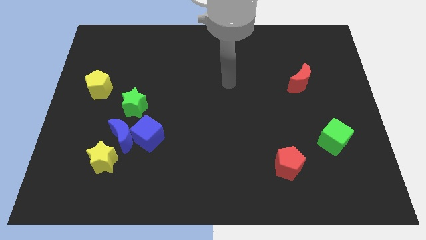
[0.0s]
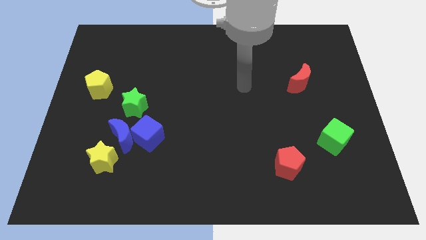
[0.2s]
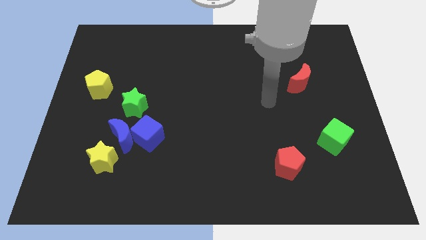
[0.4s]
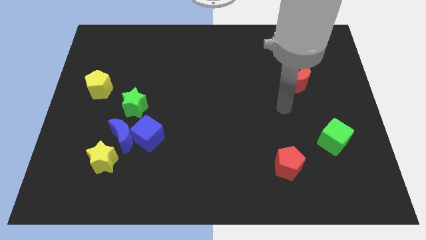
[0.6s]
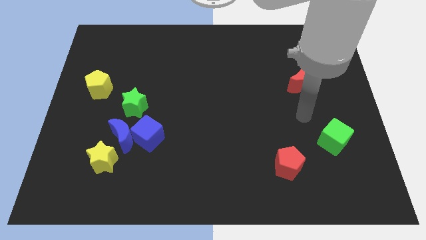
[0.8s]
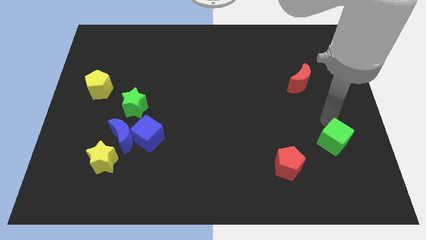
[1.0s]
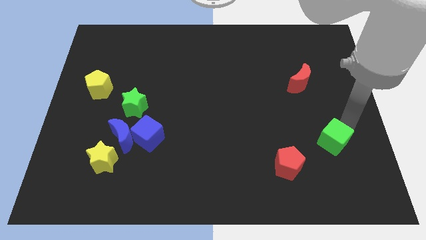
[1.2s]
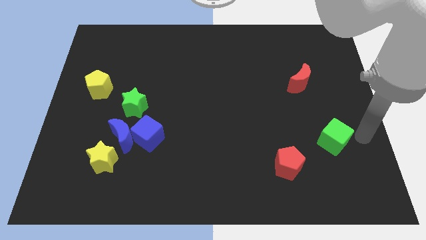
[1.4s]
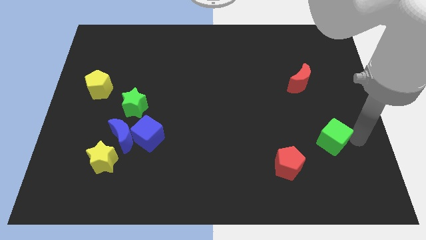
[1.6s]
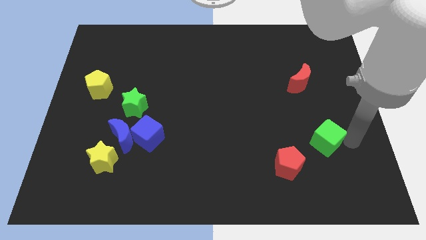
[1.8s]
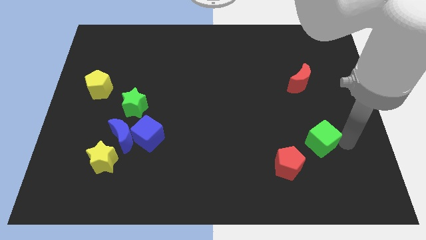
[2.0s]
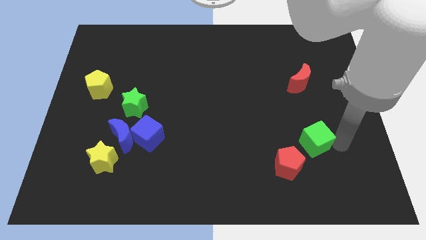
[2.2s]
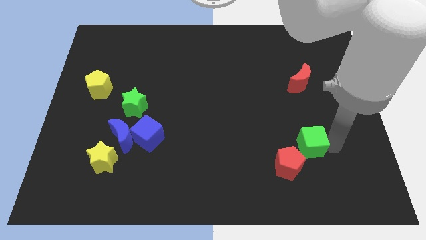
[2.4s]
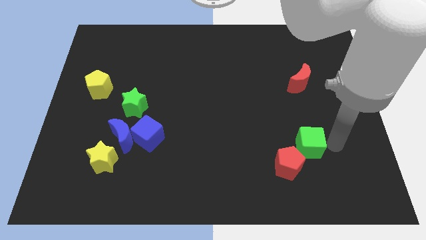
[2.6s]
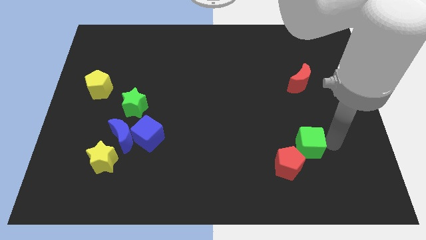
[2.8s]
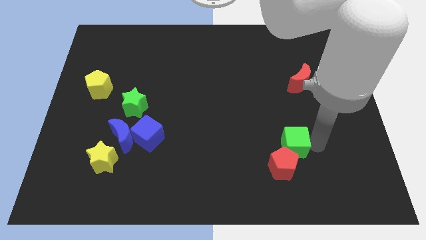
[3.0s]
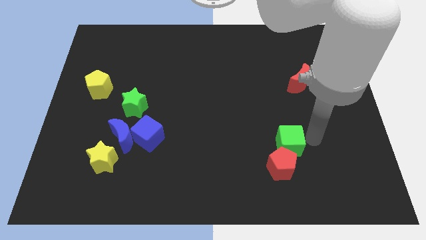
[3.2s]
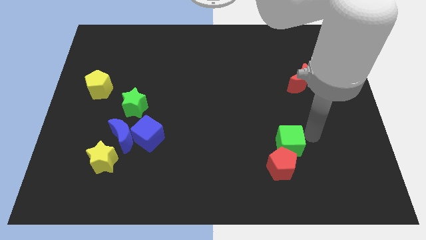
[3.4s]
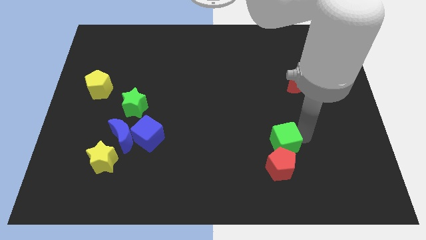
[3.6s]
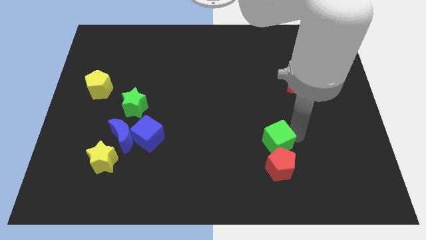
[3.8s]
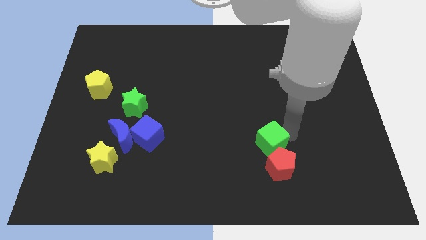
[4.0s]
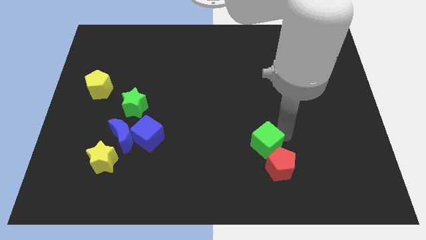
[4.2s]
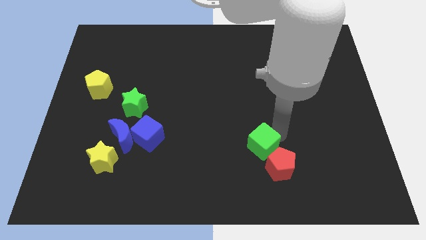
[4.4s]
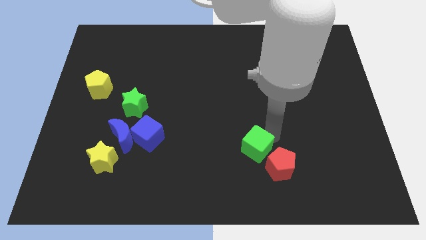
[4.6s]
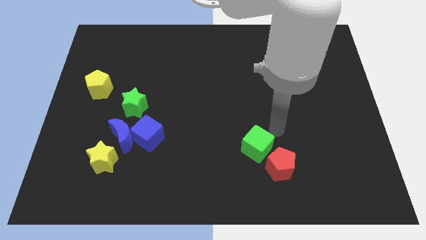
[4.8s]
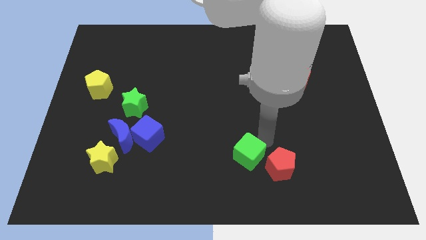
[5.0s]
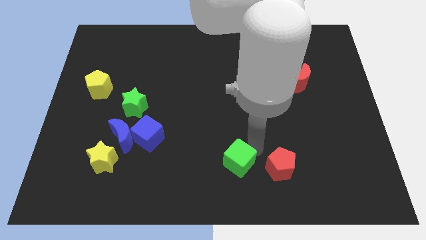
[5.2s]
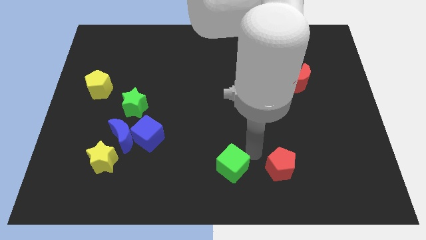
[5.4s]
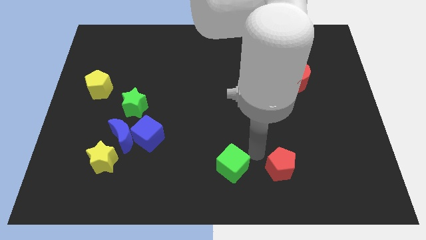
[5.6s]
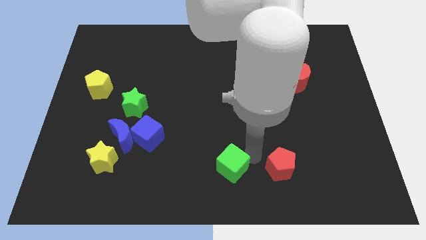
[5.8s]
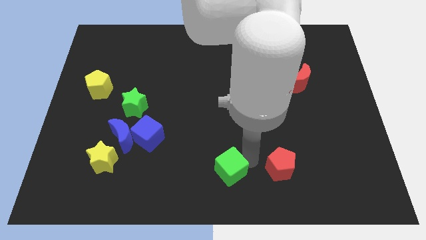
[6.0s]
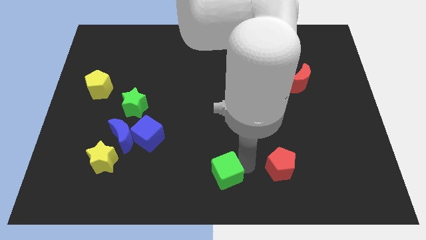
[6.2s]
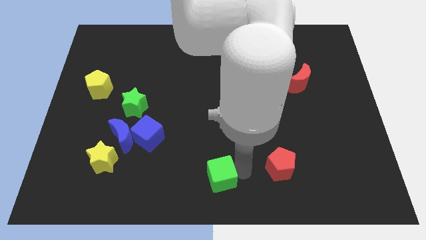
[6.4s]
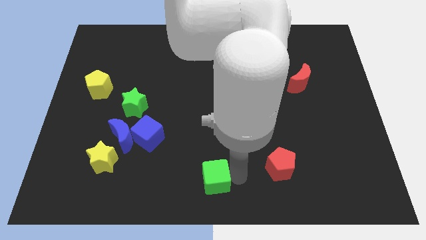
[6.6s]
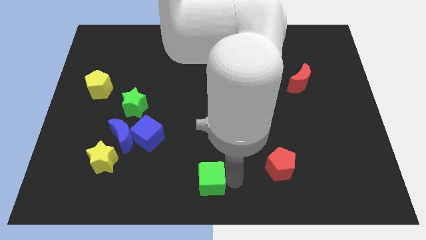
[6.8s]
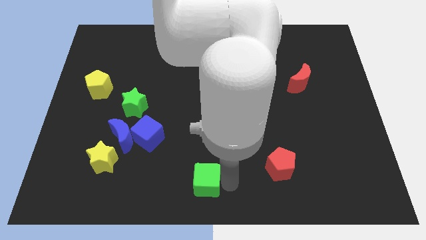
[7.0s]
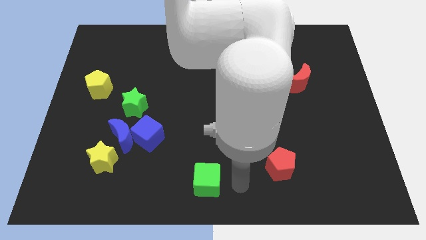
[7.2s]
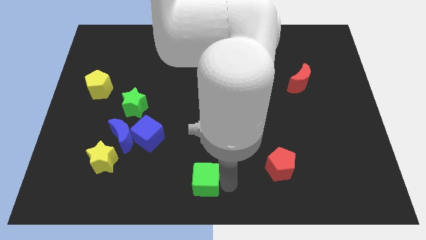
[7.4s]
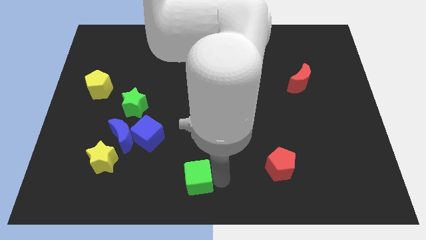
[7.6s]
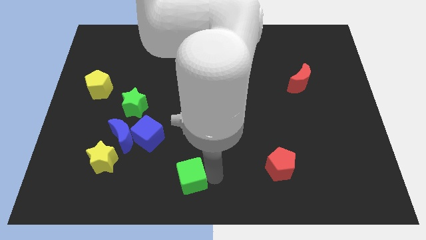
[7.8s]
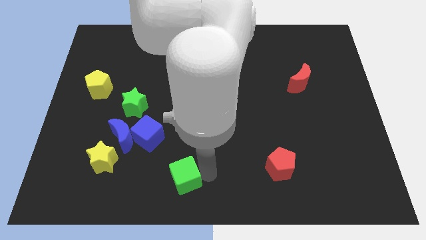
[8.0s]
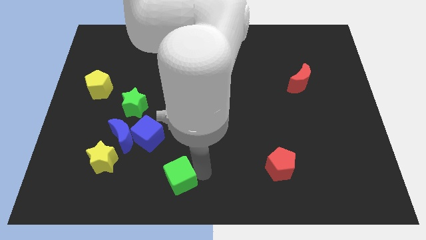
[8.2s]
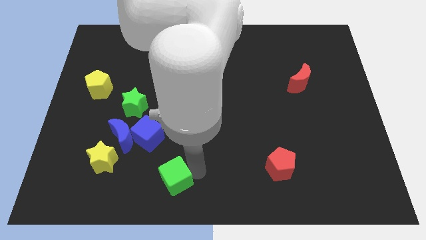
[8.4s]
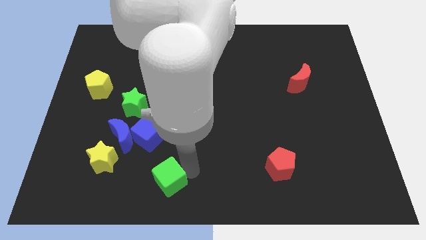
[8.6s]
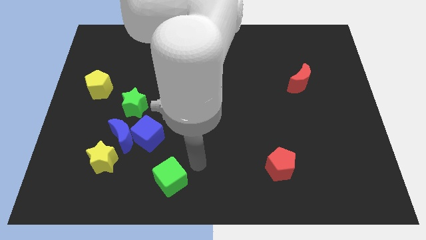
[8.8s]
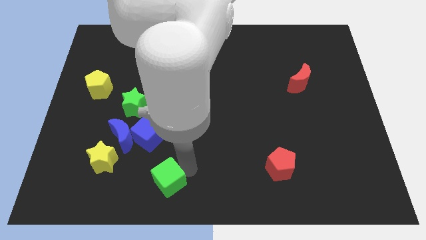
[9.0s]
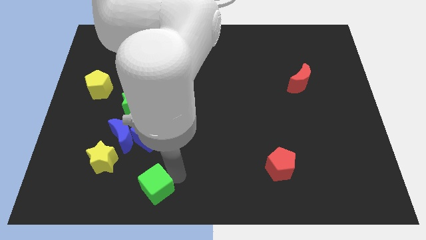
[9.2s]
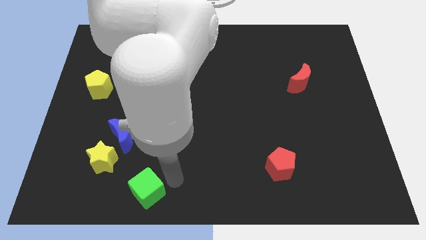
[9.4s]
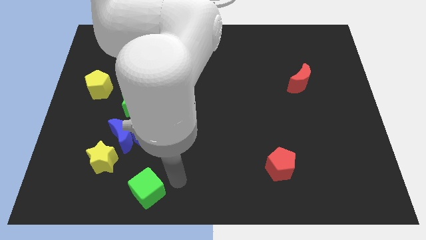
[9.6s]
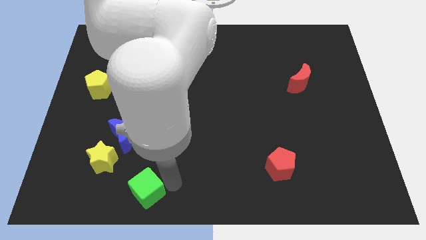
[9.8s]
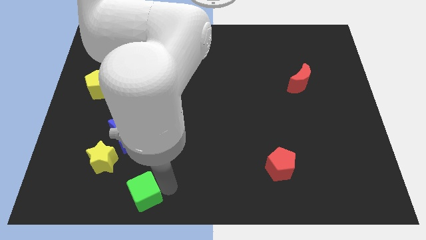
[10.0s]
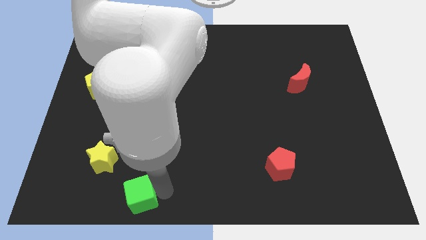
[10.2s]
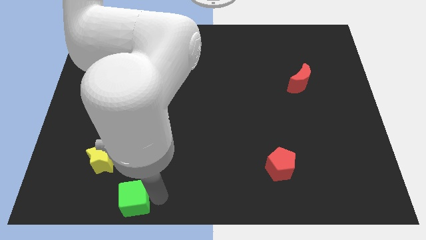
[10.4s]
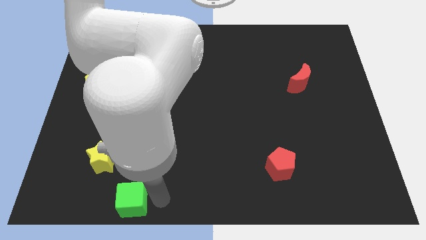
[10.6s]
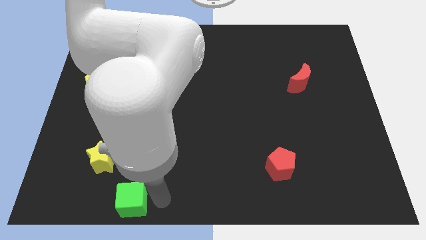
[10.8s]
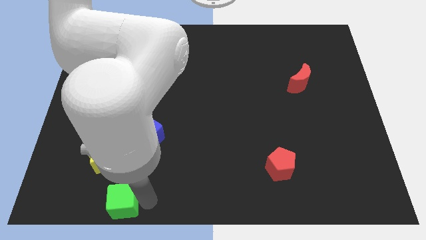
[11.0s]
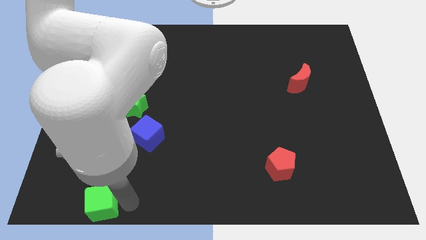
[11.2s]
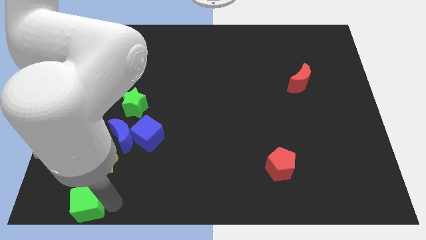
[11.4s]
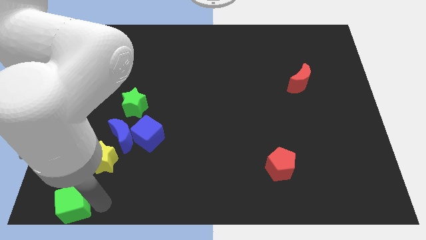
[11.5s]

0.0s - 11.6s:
slide the green cube to the bottom left corner

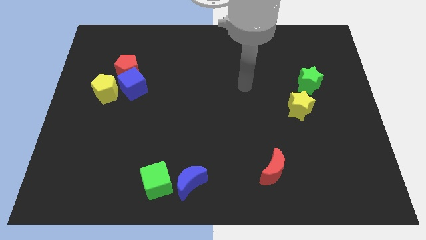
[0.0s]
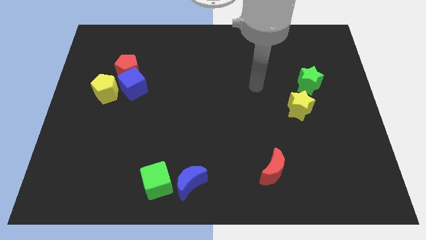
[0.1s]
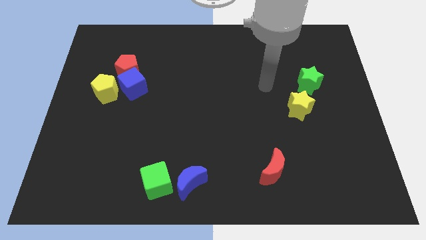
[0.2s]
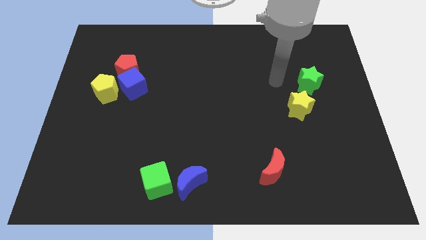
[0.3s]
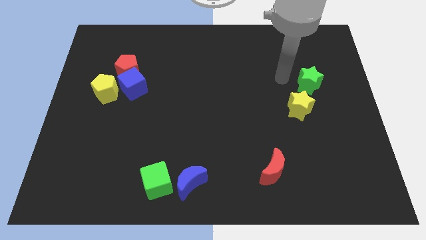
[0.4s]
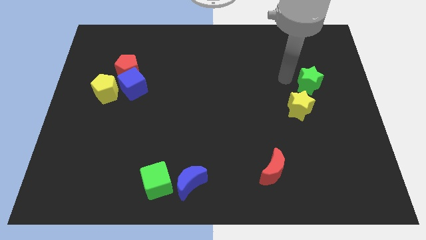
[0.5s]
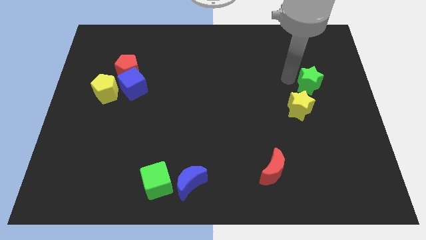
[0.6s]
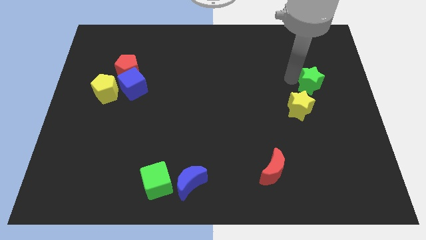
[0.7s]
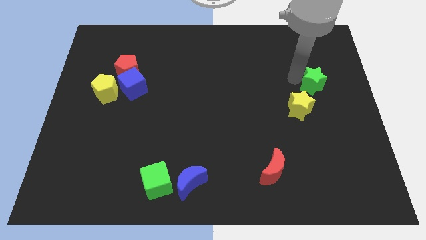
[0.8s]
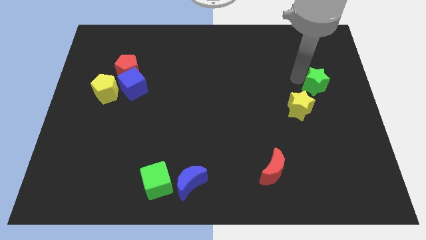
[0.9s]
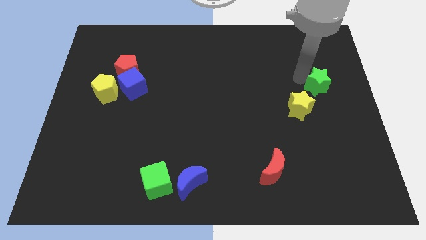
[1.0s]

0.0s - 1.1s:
move the green star to the right side

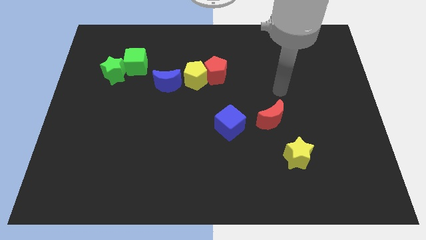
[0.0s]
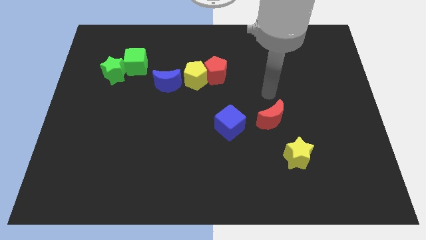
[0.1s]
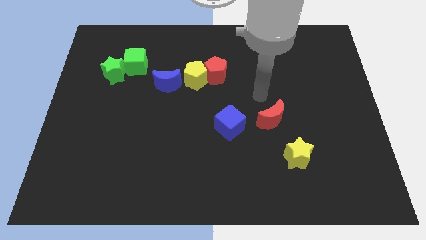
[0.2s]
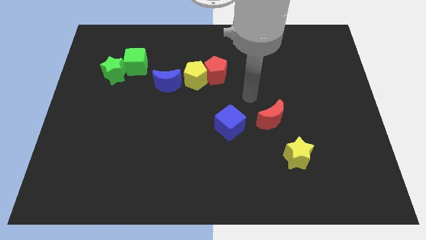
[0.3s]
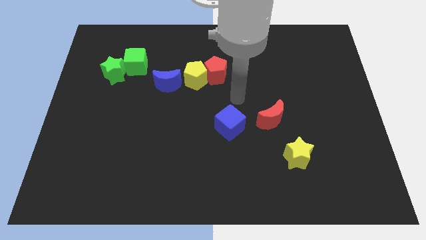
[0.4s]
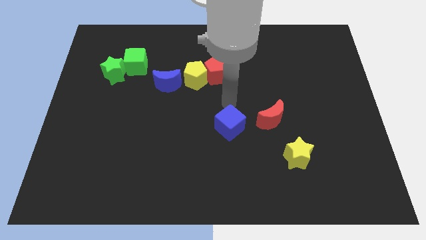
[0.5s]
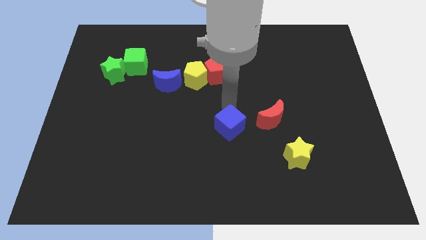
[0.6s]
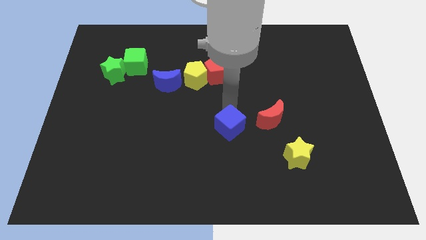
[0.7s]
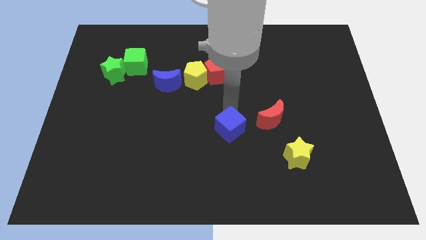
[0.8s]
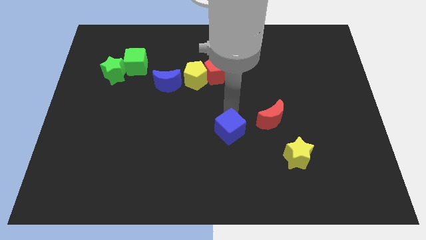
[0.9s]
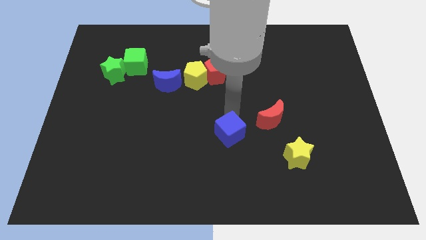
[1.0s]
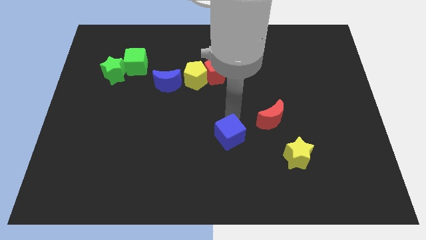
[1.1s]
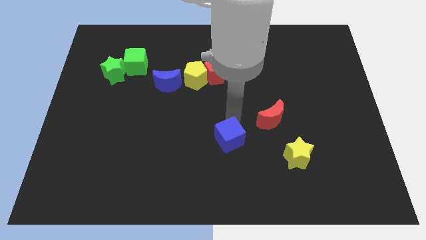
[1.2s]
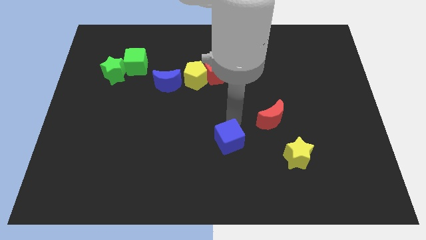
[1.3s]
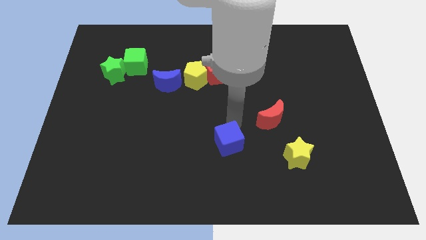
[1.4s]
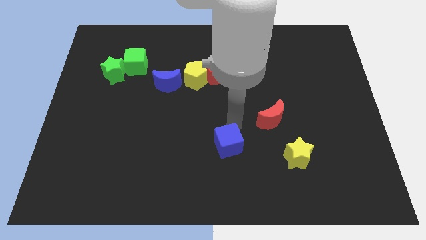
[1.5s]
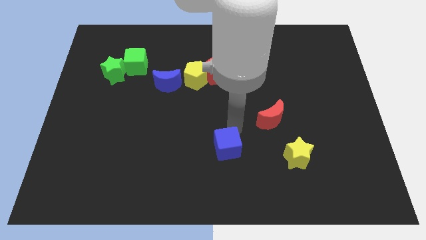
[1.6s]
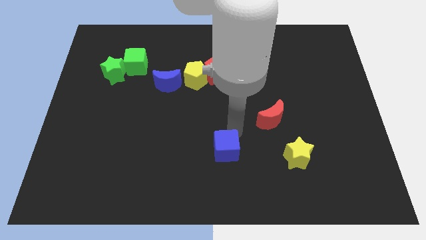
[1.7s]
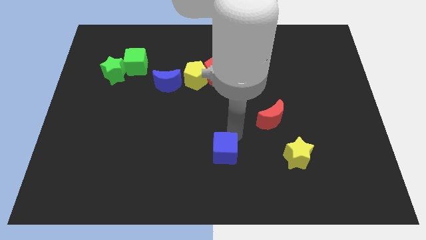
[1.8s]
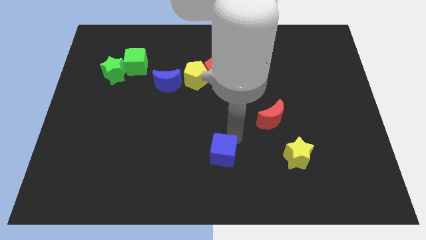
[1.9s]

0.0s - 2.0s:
slide the blue cube to the bottom
